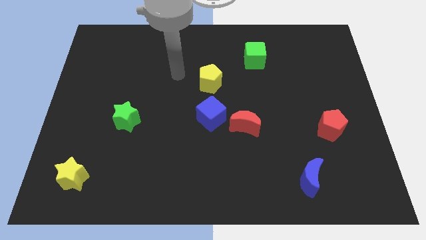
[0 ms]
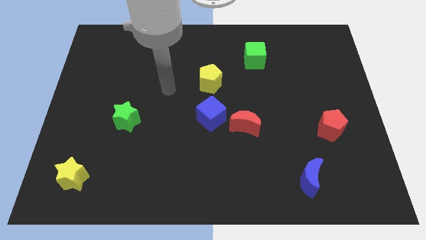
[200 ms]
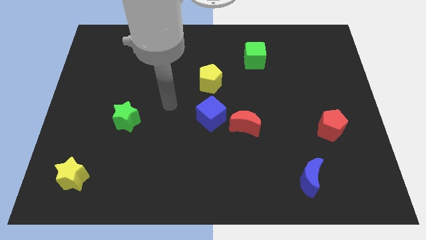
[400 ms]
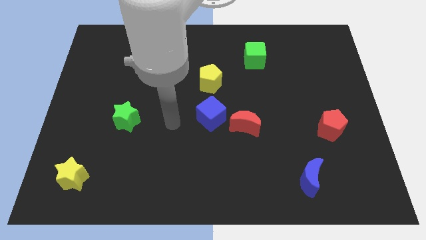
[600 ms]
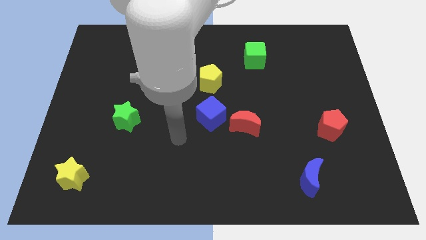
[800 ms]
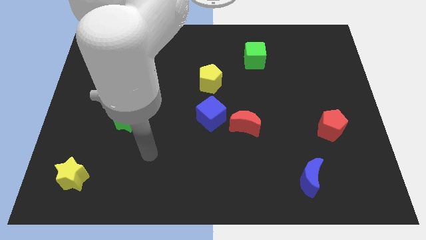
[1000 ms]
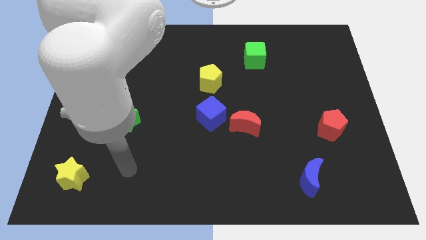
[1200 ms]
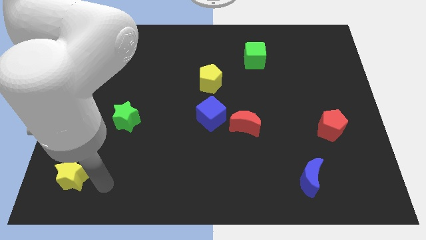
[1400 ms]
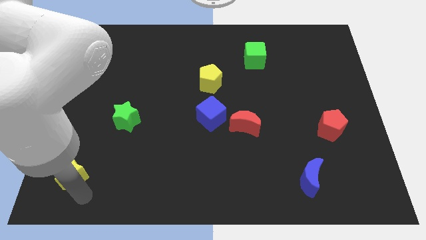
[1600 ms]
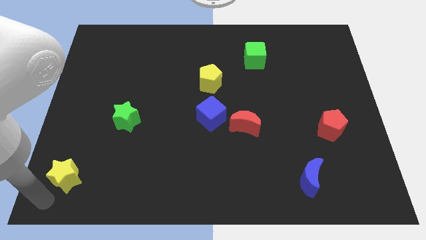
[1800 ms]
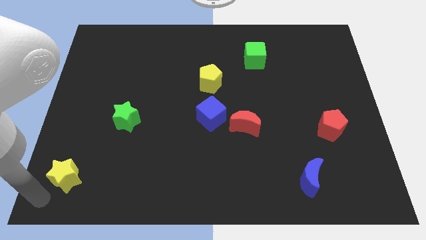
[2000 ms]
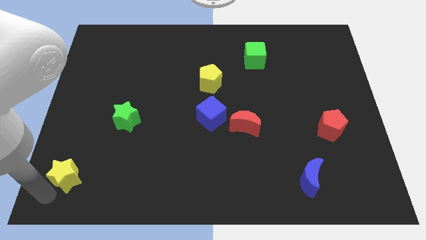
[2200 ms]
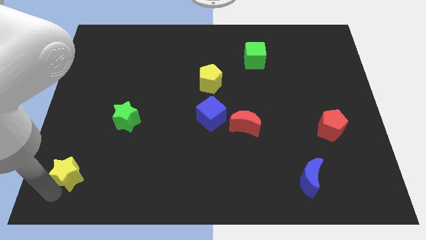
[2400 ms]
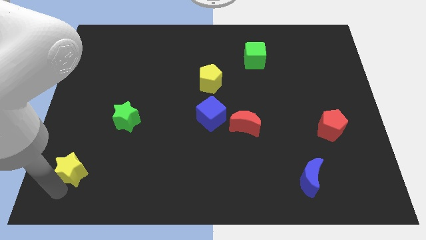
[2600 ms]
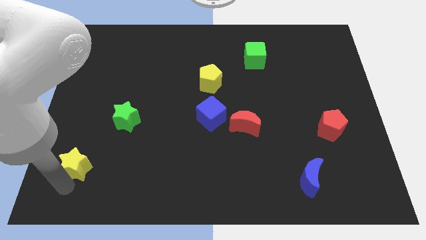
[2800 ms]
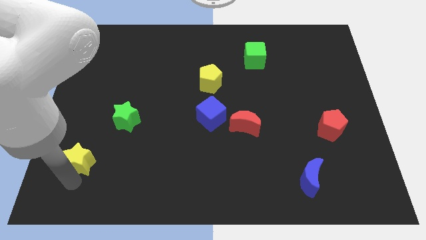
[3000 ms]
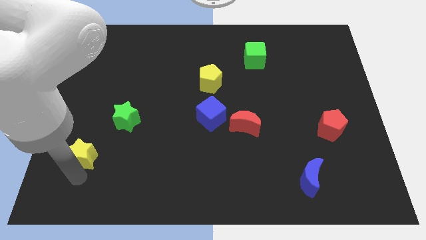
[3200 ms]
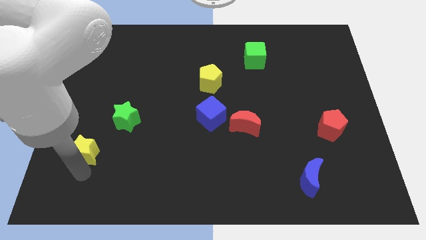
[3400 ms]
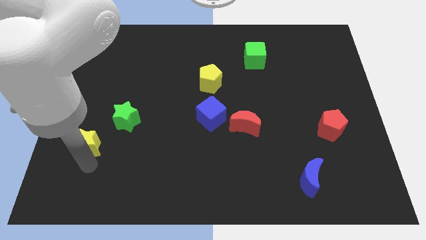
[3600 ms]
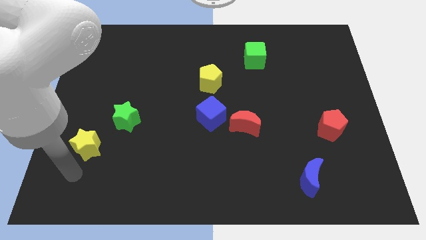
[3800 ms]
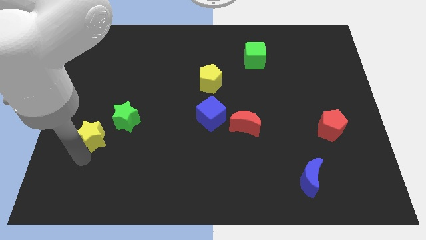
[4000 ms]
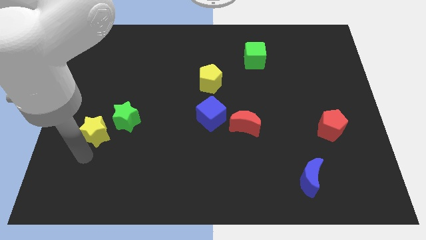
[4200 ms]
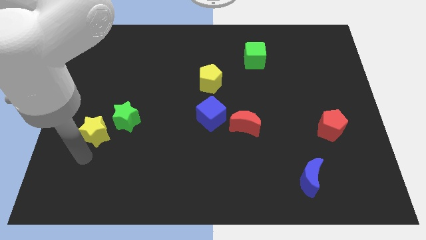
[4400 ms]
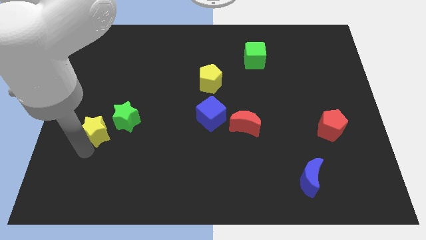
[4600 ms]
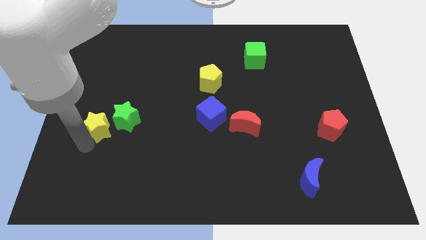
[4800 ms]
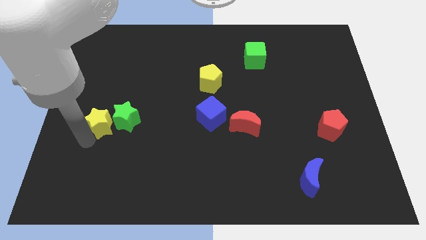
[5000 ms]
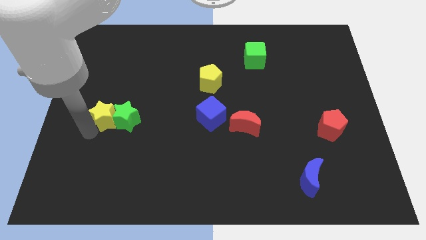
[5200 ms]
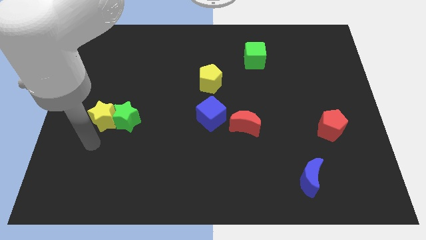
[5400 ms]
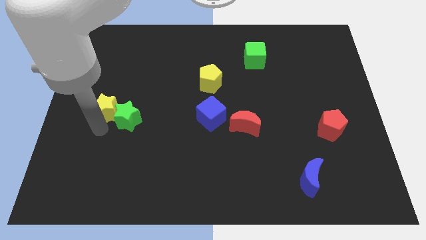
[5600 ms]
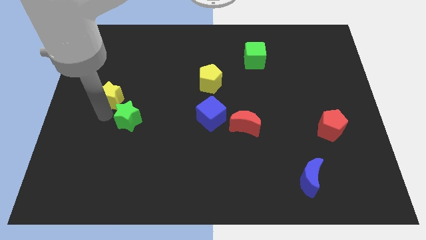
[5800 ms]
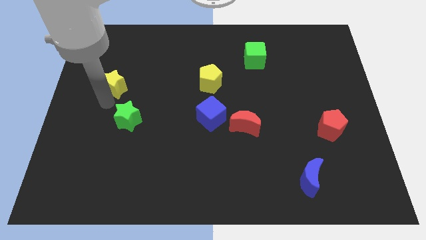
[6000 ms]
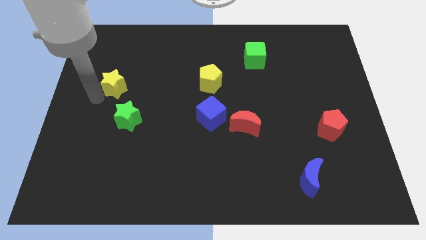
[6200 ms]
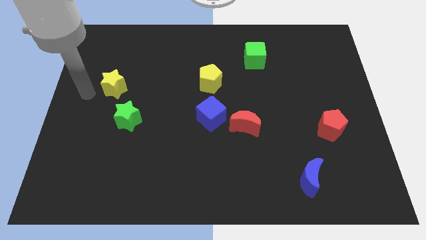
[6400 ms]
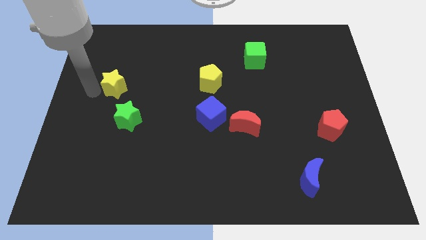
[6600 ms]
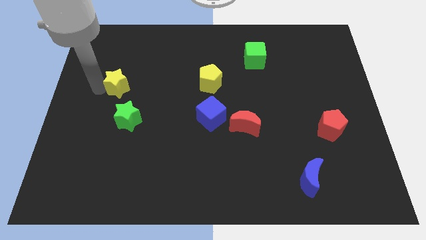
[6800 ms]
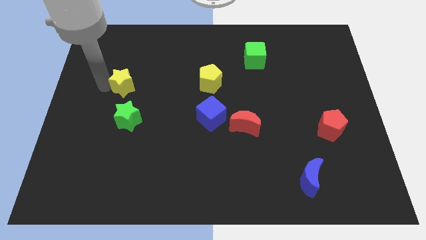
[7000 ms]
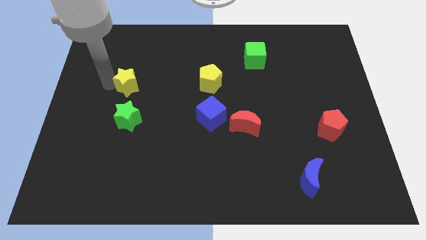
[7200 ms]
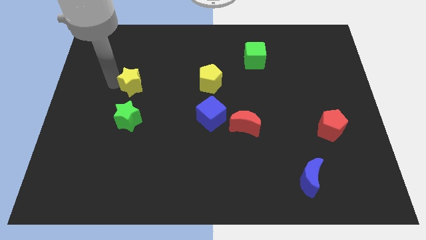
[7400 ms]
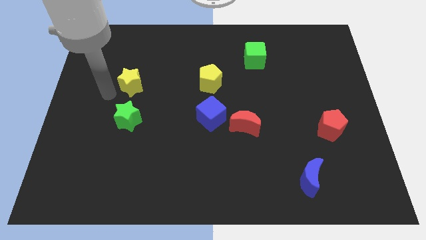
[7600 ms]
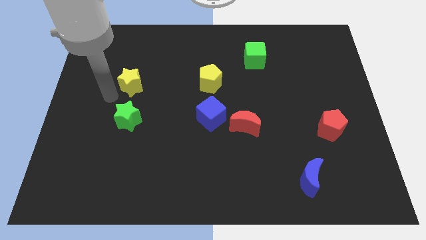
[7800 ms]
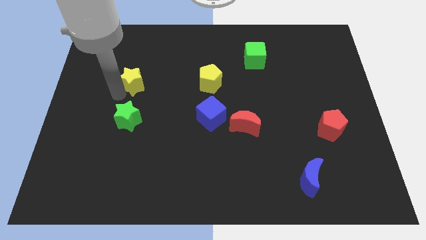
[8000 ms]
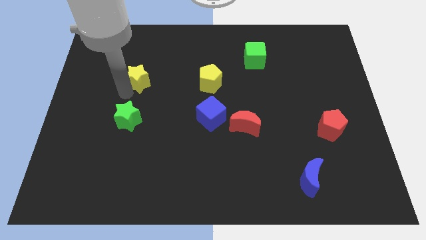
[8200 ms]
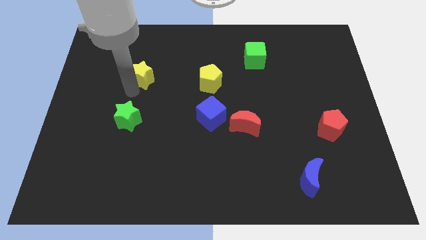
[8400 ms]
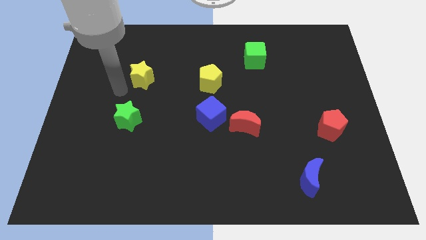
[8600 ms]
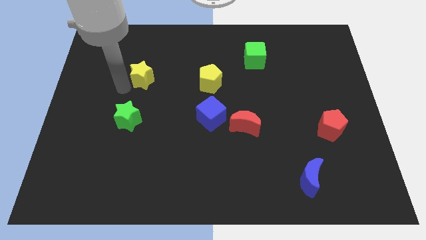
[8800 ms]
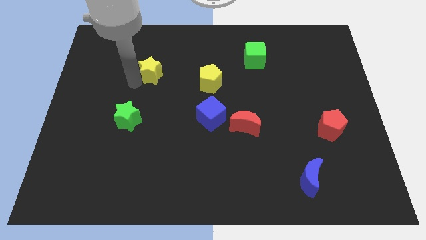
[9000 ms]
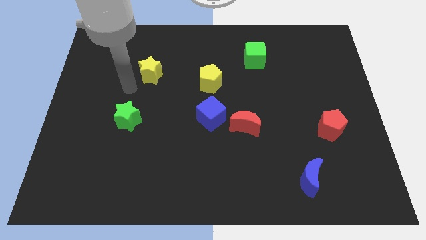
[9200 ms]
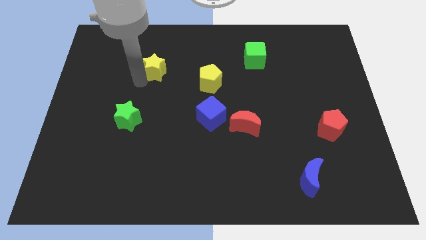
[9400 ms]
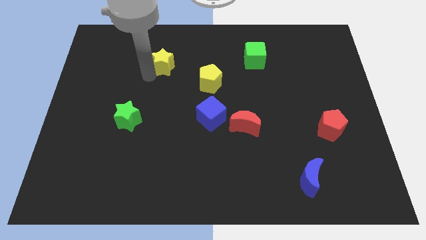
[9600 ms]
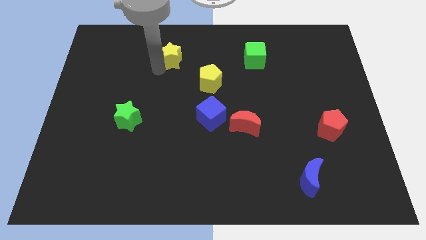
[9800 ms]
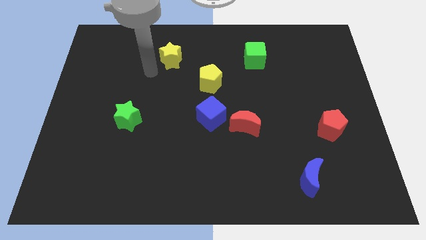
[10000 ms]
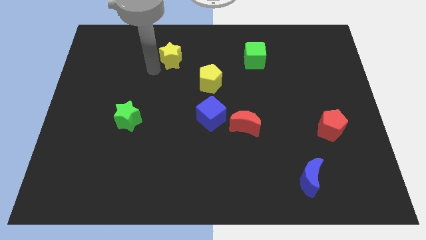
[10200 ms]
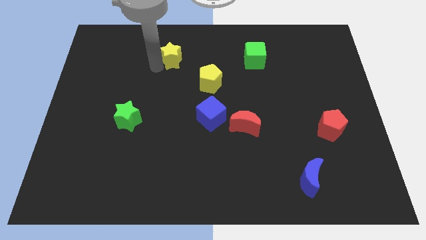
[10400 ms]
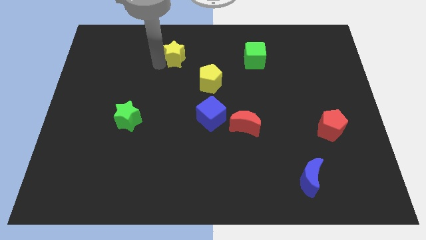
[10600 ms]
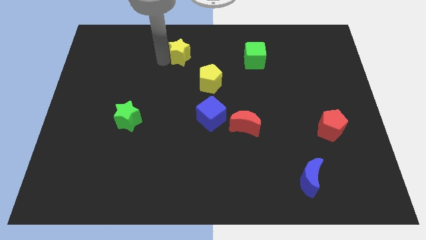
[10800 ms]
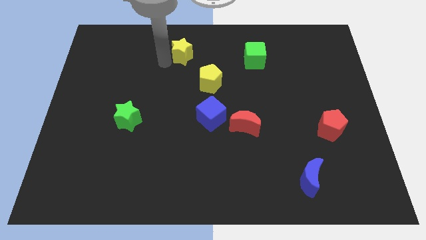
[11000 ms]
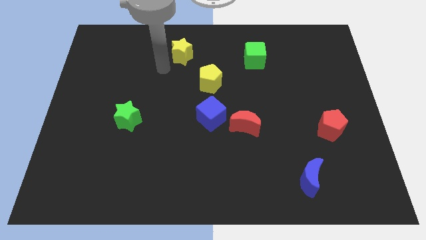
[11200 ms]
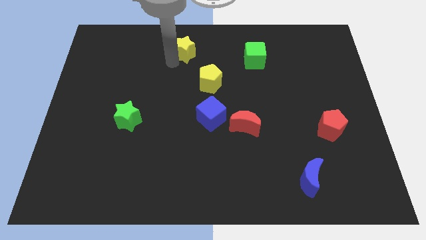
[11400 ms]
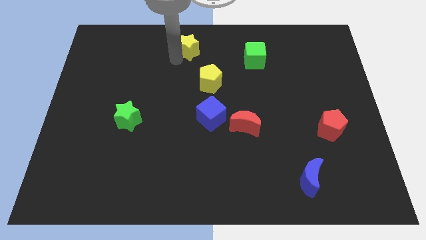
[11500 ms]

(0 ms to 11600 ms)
put the yellow star to the towards your base

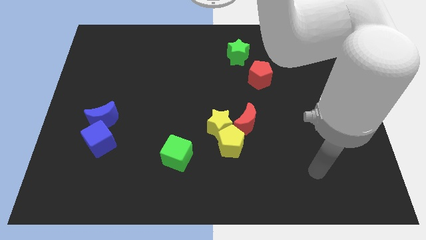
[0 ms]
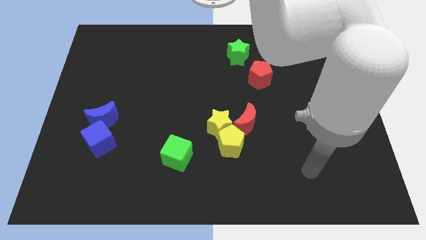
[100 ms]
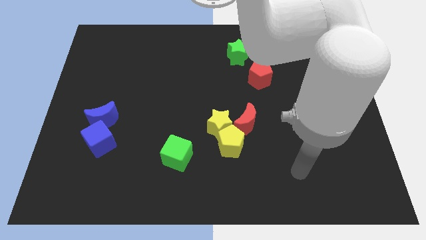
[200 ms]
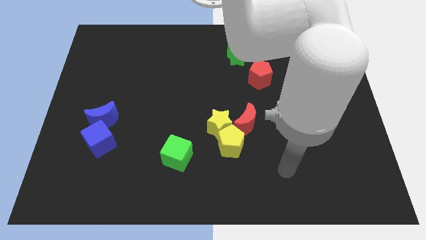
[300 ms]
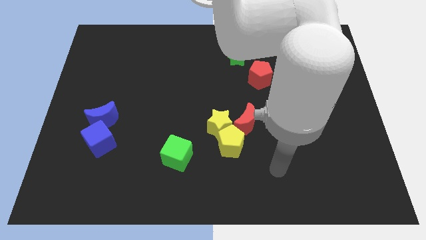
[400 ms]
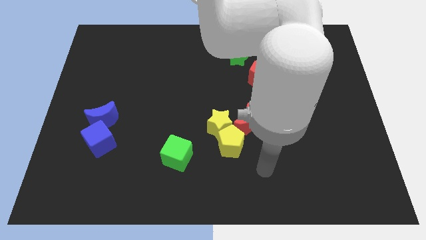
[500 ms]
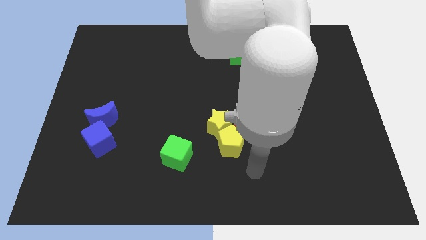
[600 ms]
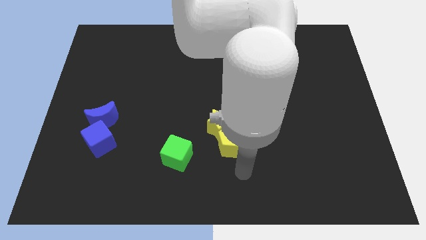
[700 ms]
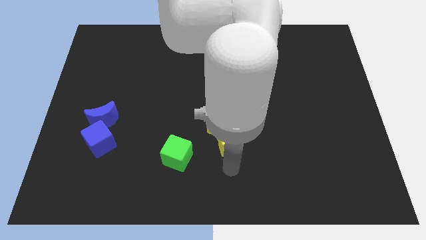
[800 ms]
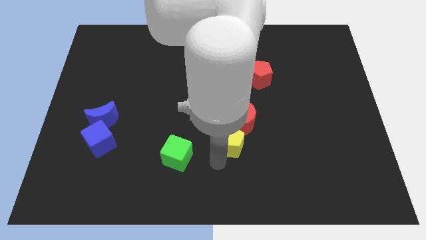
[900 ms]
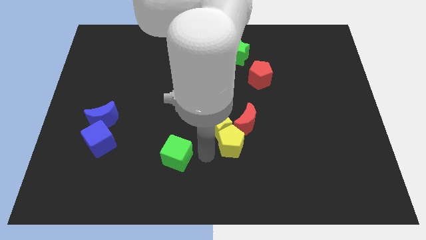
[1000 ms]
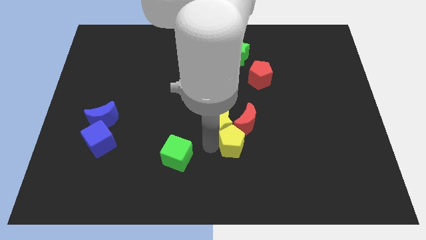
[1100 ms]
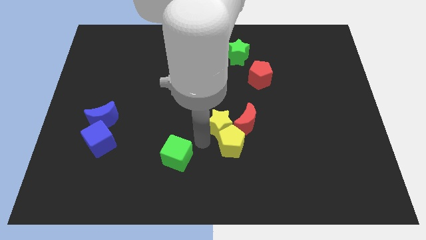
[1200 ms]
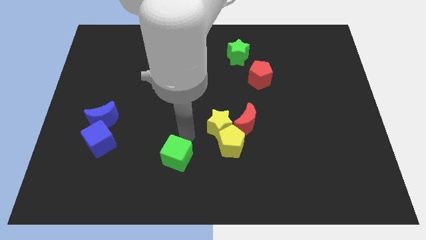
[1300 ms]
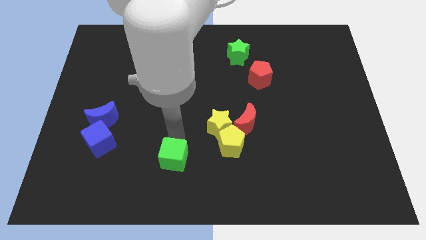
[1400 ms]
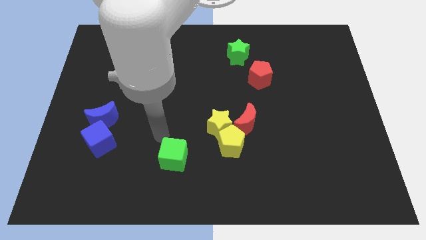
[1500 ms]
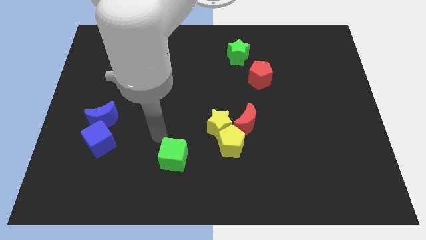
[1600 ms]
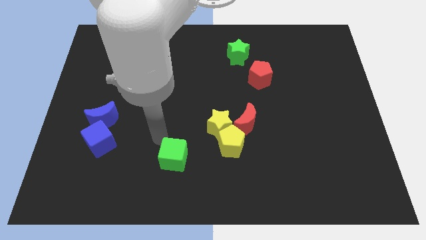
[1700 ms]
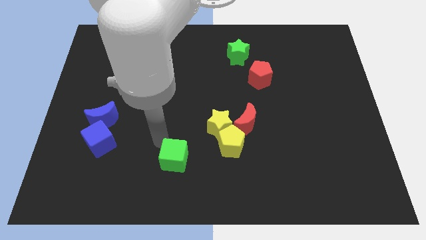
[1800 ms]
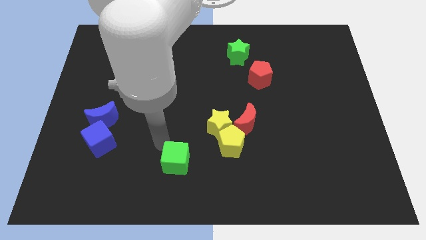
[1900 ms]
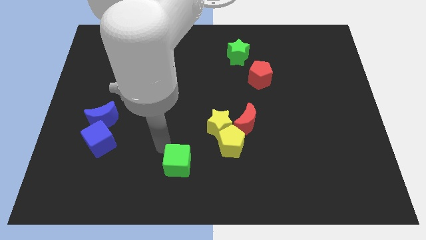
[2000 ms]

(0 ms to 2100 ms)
slide the green cube to the bottom
